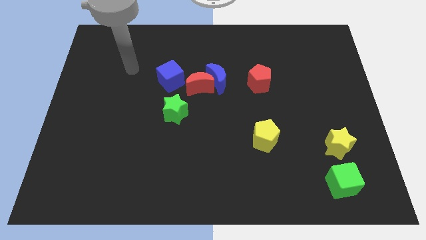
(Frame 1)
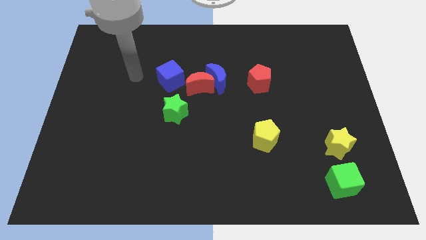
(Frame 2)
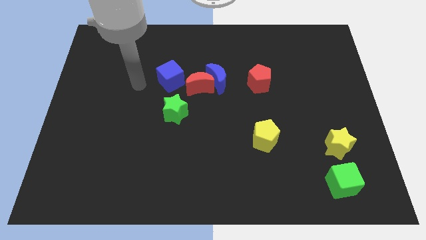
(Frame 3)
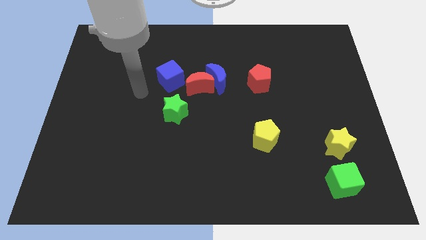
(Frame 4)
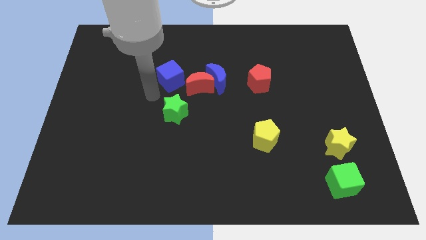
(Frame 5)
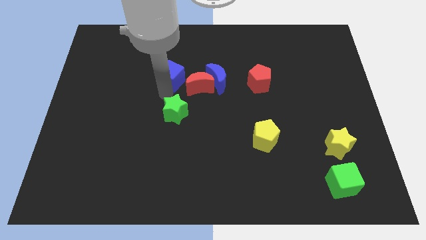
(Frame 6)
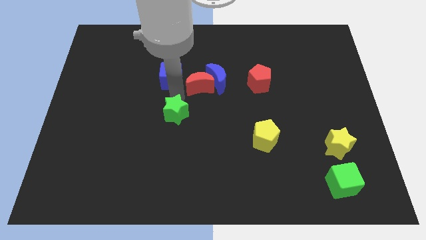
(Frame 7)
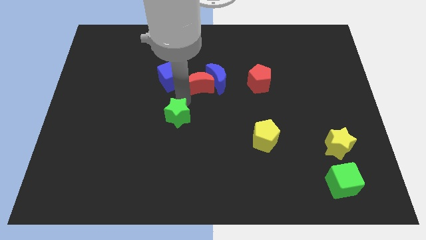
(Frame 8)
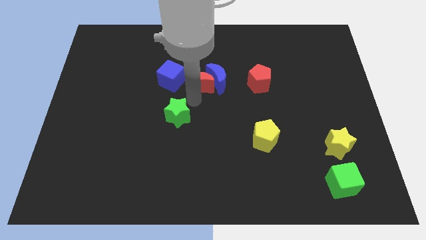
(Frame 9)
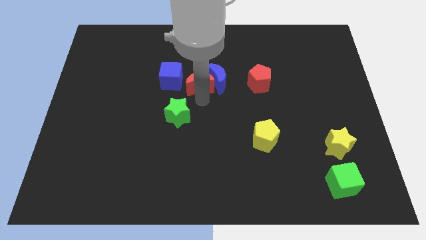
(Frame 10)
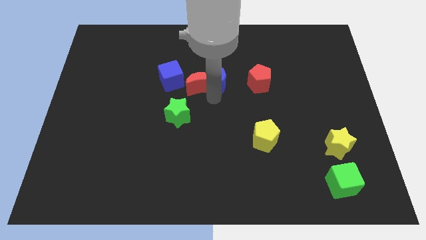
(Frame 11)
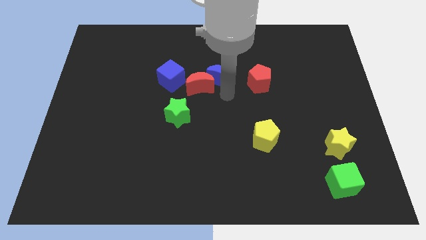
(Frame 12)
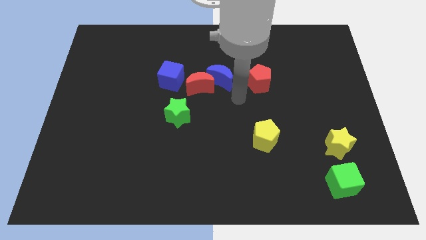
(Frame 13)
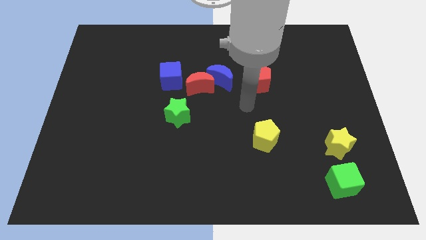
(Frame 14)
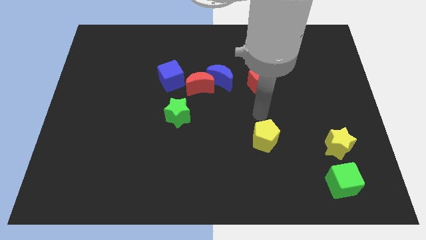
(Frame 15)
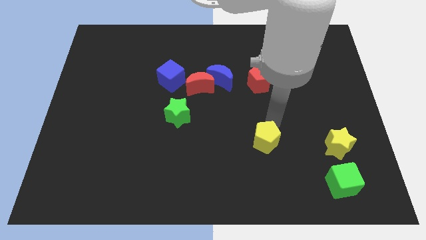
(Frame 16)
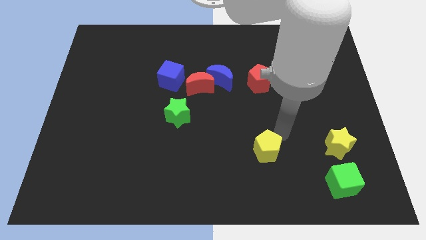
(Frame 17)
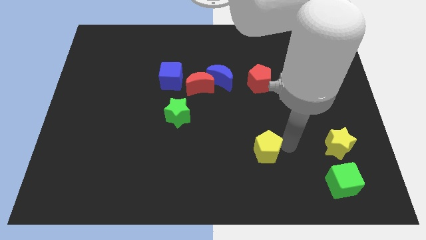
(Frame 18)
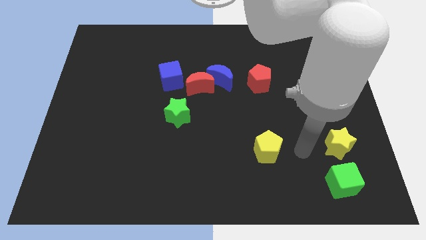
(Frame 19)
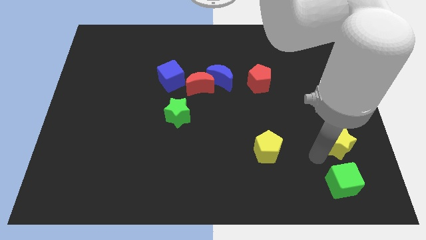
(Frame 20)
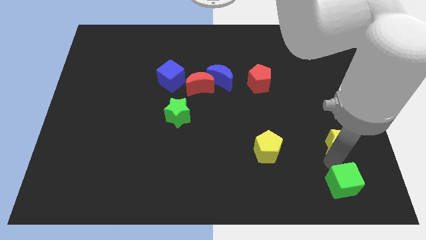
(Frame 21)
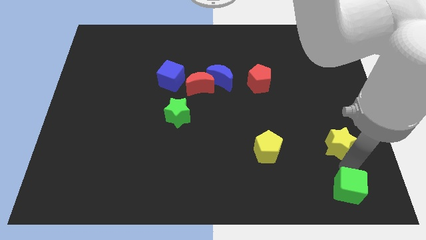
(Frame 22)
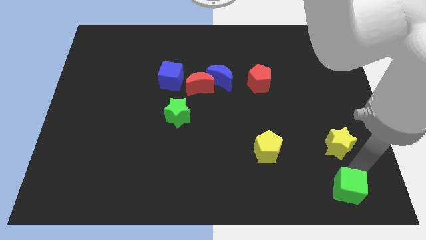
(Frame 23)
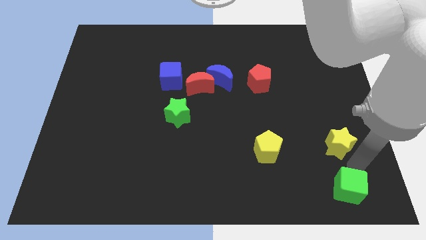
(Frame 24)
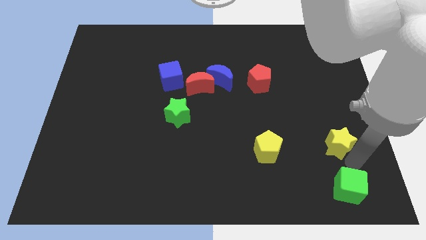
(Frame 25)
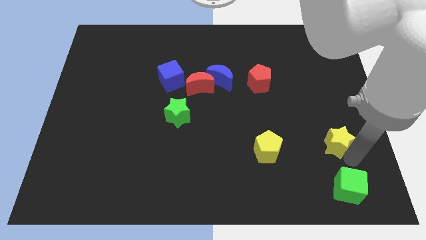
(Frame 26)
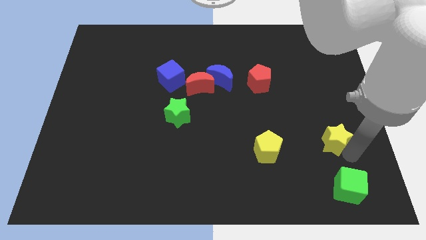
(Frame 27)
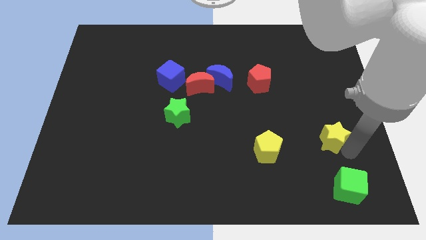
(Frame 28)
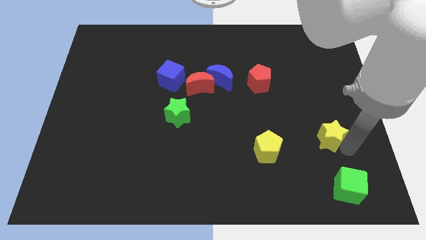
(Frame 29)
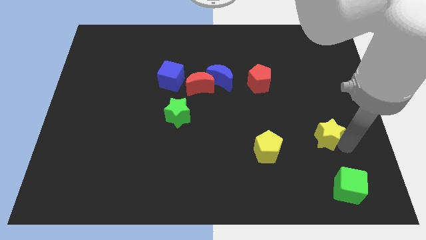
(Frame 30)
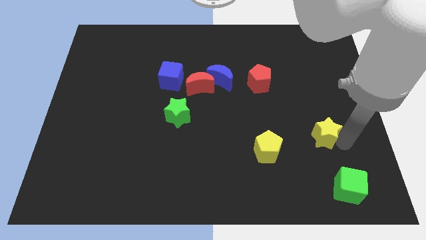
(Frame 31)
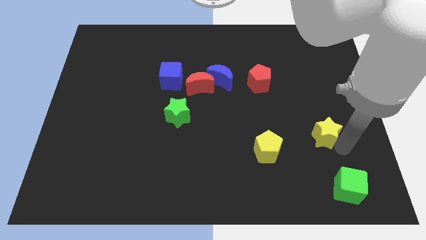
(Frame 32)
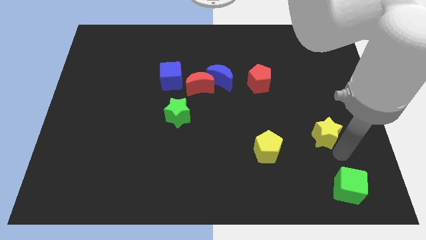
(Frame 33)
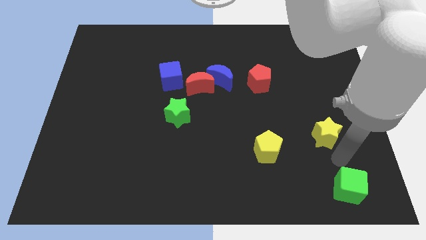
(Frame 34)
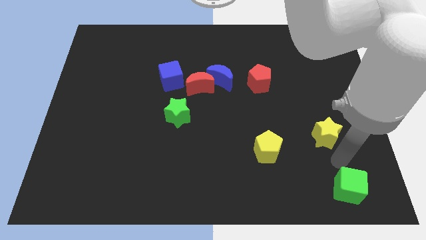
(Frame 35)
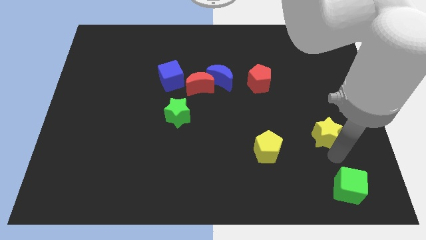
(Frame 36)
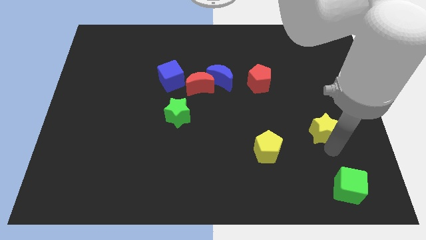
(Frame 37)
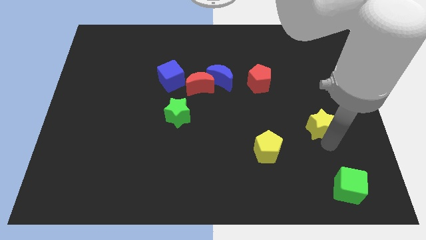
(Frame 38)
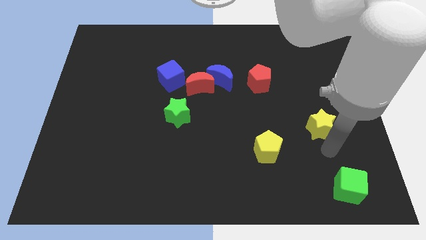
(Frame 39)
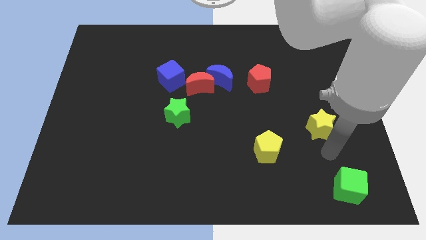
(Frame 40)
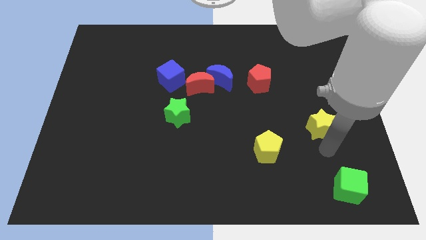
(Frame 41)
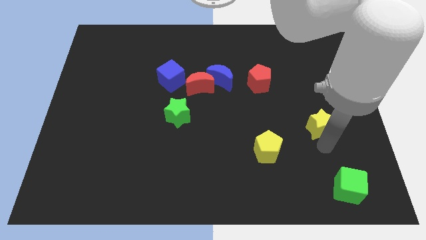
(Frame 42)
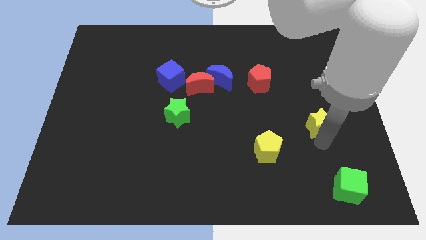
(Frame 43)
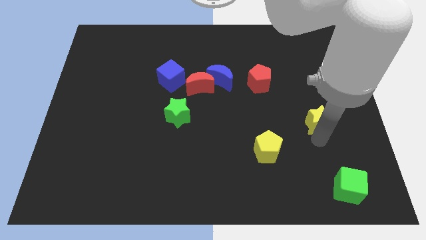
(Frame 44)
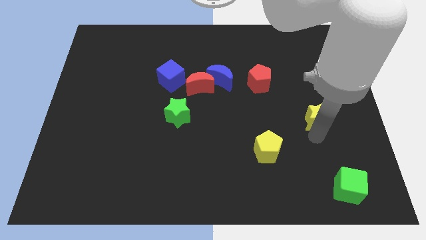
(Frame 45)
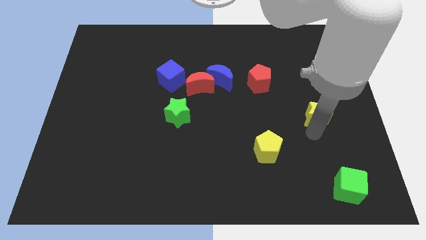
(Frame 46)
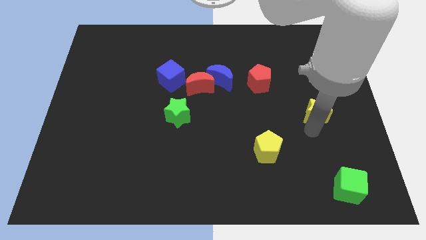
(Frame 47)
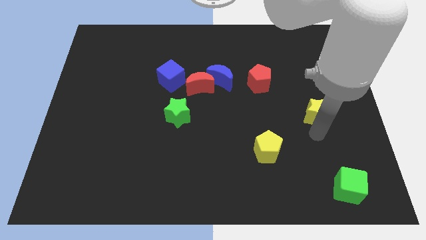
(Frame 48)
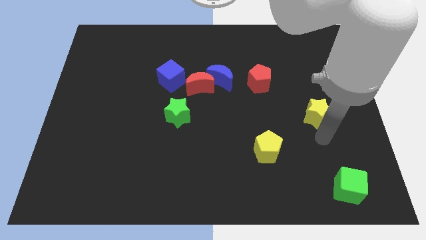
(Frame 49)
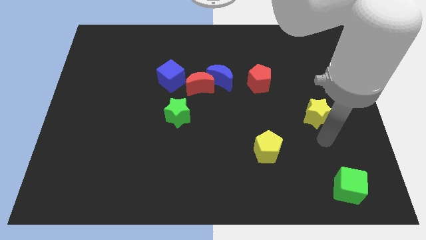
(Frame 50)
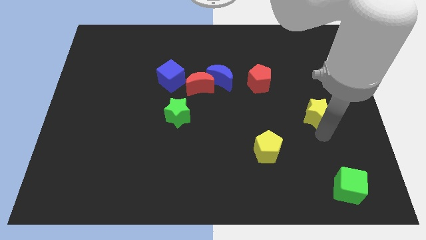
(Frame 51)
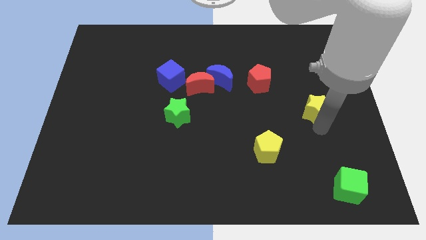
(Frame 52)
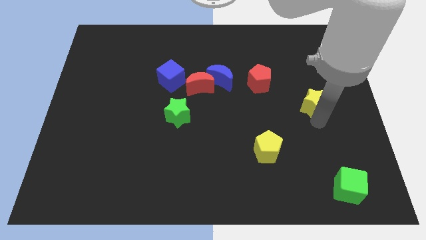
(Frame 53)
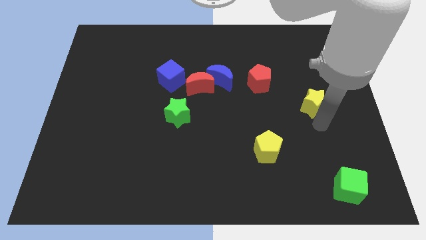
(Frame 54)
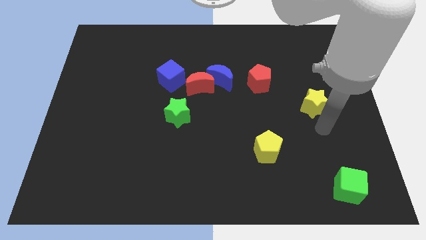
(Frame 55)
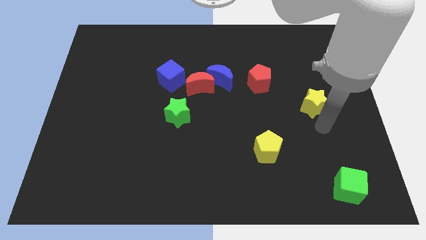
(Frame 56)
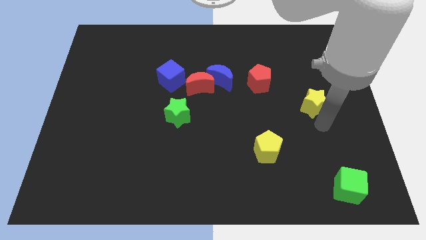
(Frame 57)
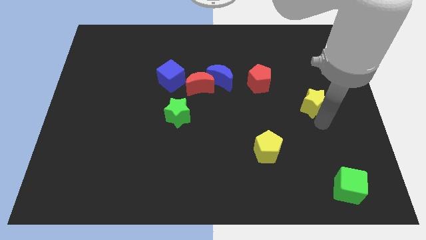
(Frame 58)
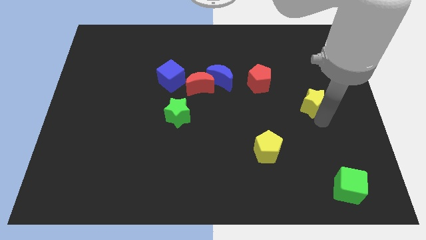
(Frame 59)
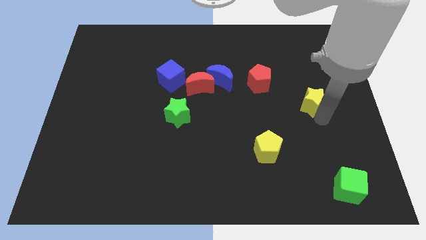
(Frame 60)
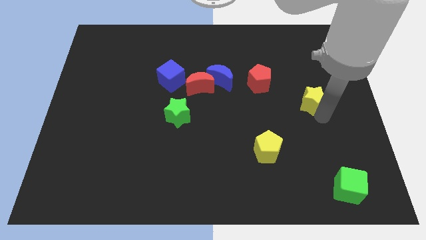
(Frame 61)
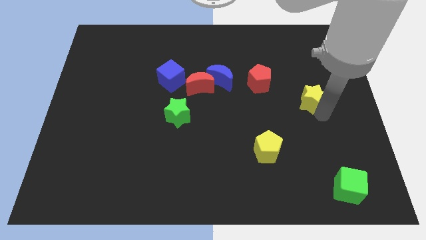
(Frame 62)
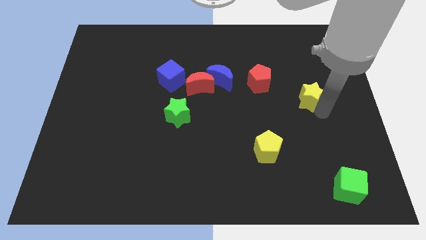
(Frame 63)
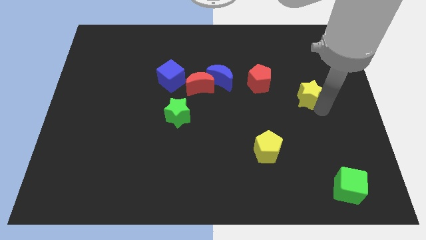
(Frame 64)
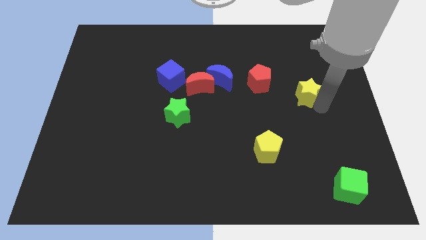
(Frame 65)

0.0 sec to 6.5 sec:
slide the yellow star to the right side of the red pentagon

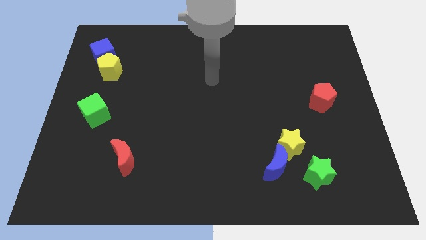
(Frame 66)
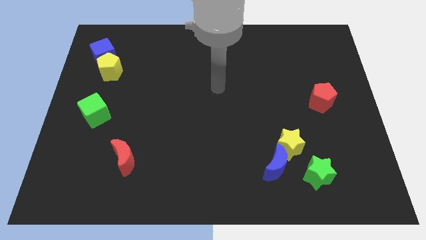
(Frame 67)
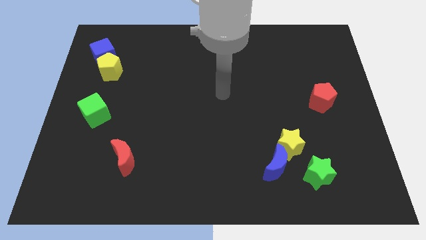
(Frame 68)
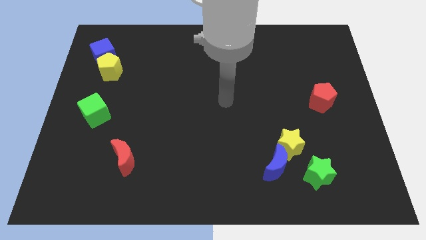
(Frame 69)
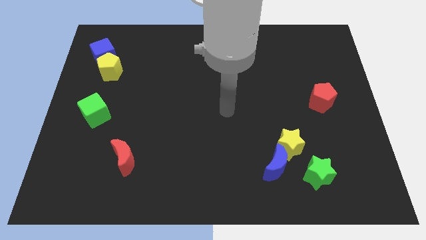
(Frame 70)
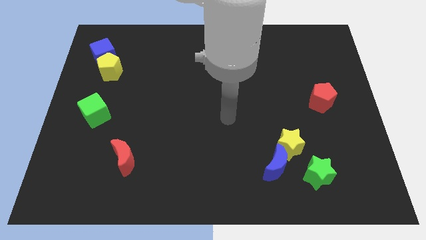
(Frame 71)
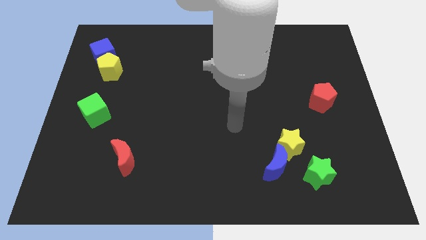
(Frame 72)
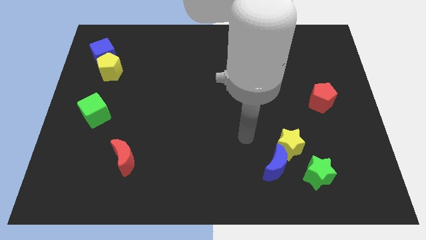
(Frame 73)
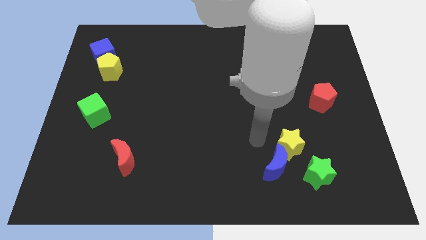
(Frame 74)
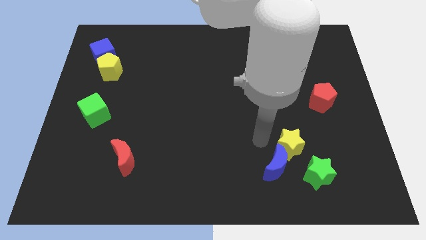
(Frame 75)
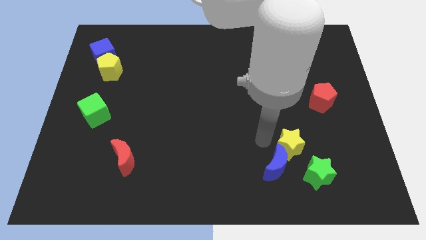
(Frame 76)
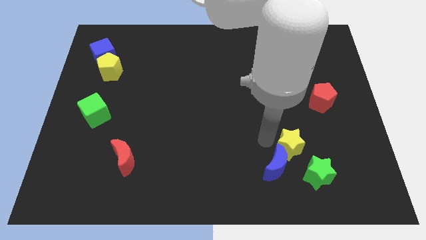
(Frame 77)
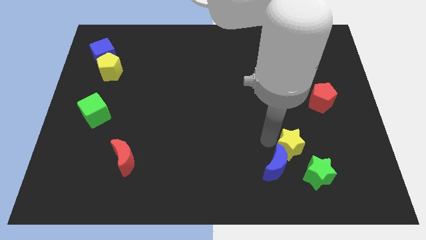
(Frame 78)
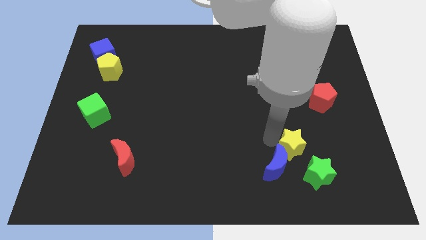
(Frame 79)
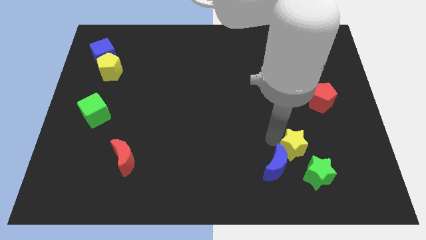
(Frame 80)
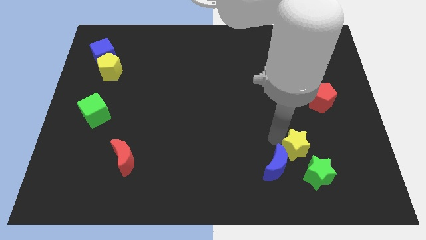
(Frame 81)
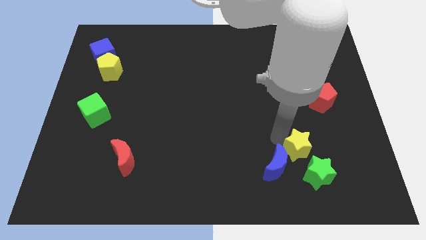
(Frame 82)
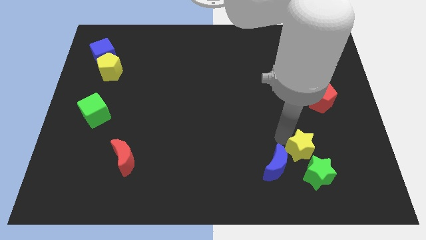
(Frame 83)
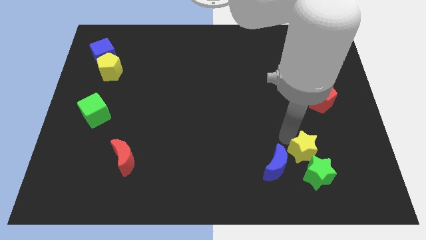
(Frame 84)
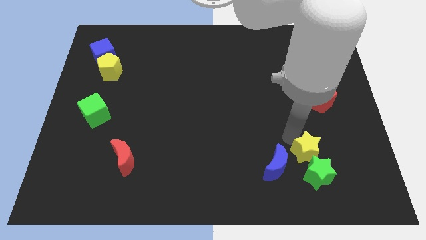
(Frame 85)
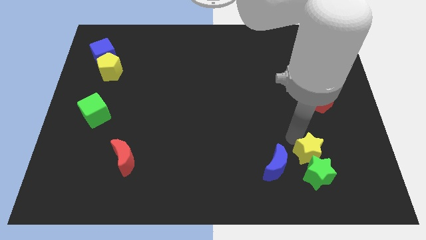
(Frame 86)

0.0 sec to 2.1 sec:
push the yellow star to the top right side of the green star
